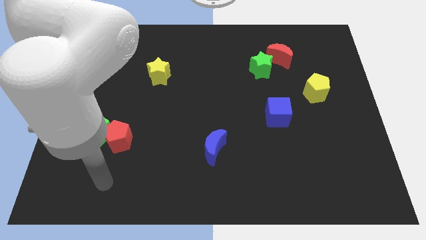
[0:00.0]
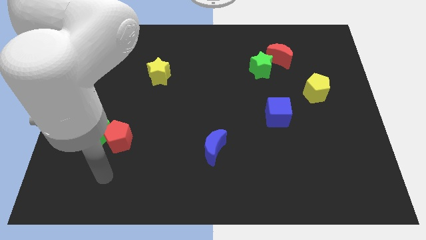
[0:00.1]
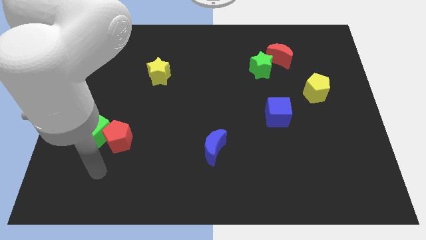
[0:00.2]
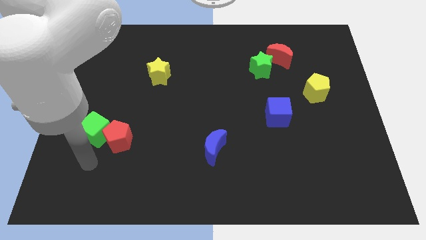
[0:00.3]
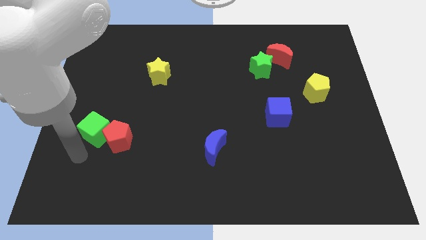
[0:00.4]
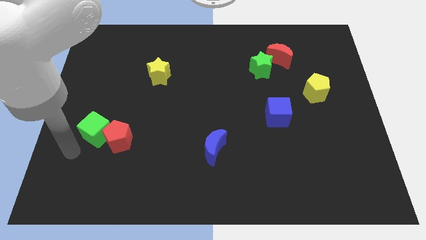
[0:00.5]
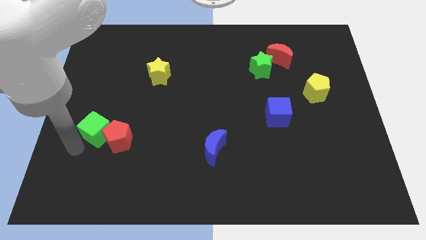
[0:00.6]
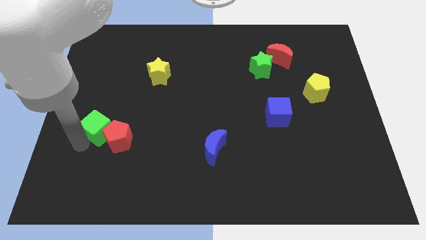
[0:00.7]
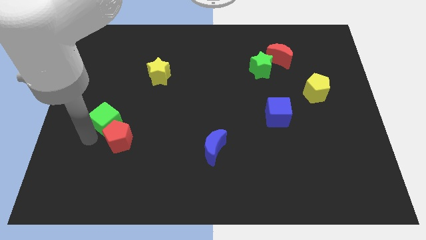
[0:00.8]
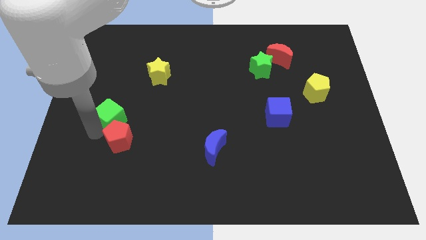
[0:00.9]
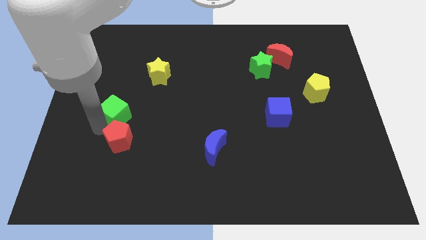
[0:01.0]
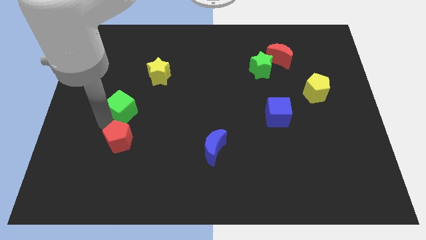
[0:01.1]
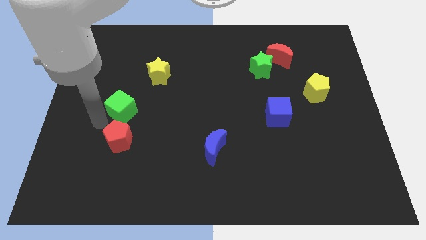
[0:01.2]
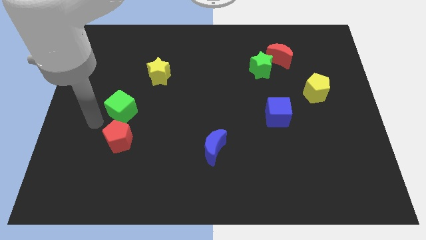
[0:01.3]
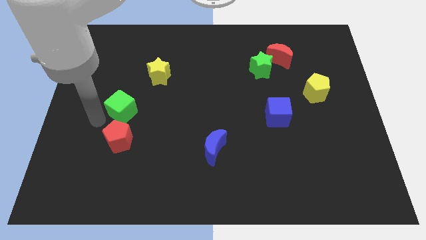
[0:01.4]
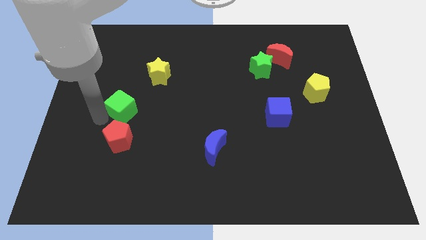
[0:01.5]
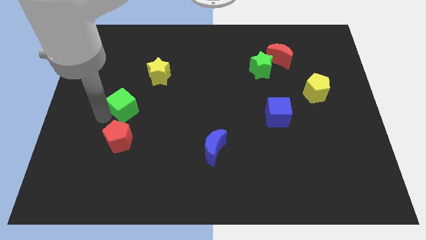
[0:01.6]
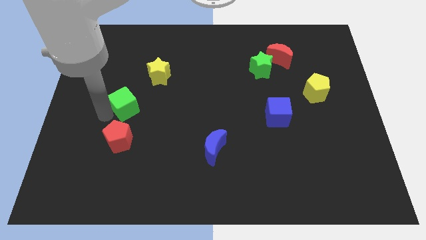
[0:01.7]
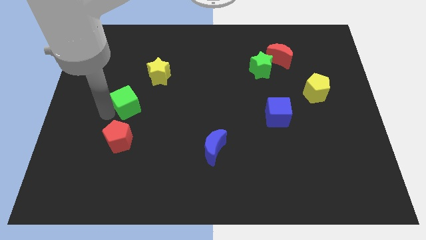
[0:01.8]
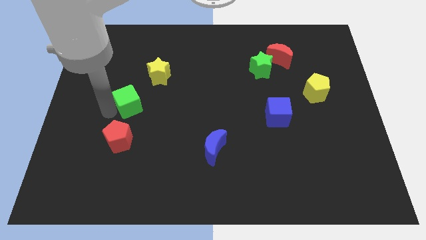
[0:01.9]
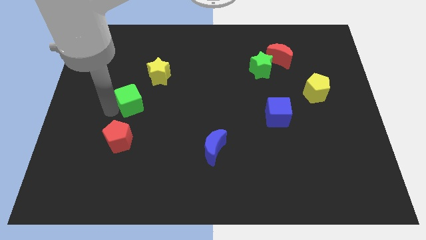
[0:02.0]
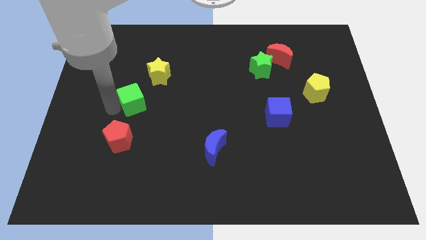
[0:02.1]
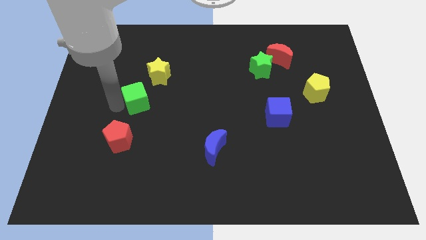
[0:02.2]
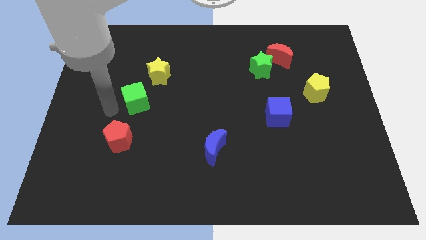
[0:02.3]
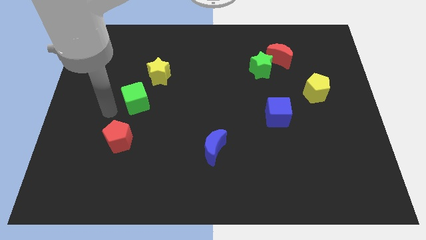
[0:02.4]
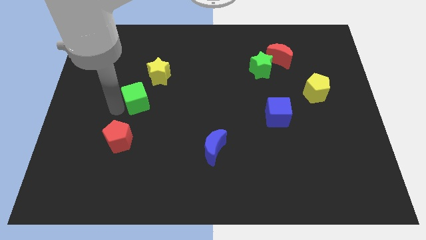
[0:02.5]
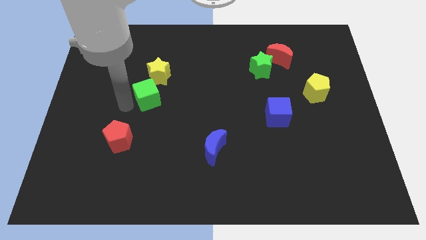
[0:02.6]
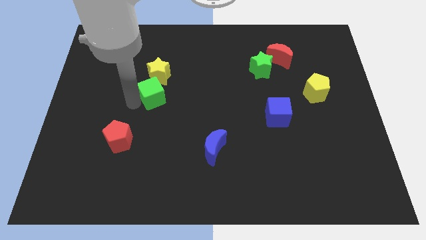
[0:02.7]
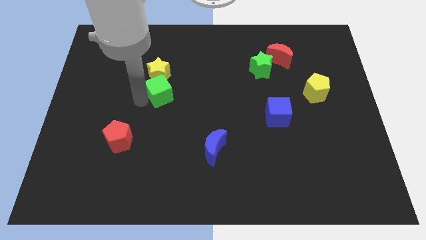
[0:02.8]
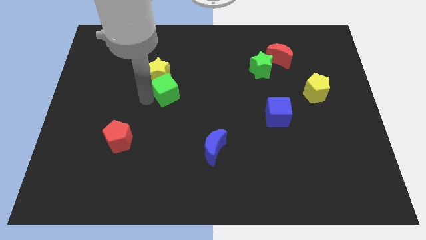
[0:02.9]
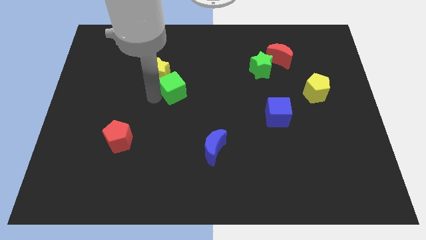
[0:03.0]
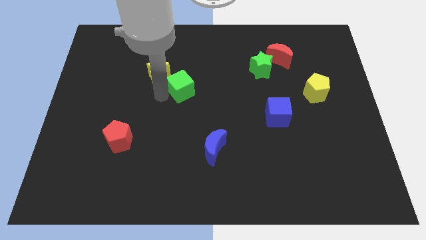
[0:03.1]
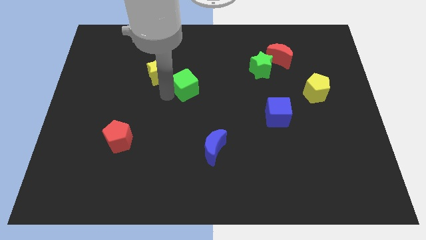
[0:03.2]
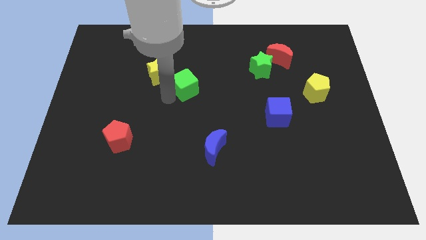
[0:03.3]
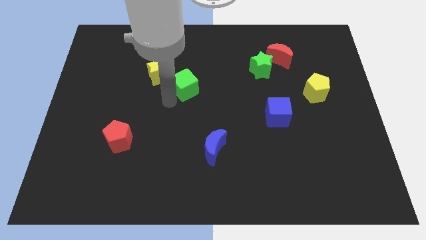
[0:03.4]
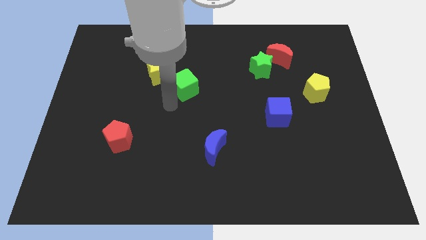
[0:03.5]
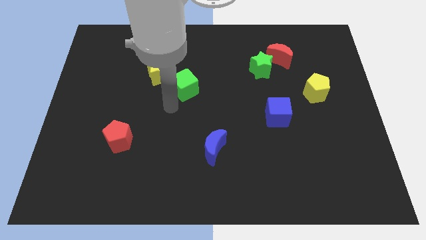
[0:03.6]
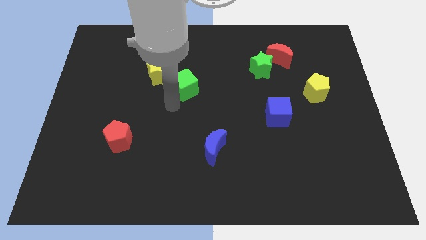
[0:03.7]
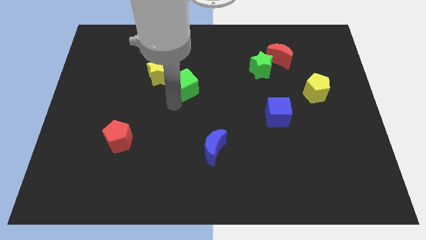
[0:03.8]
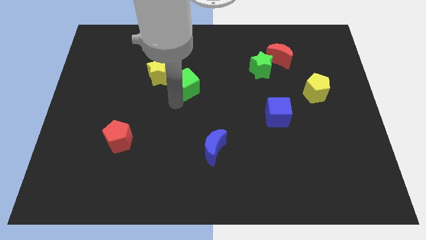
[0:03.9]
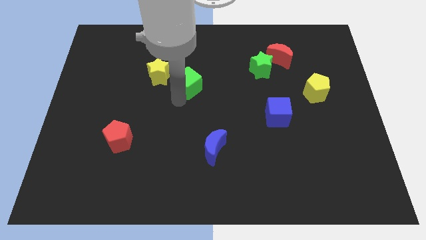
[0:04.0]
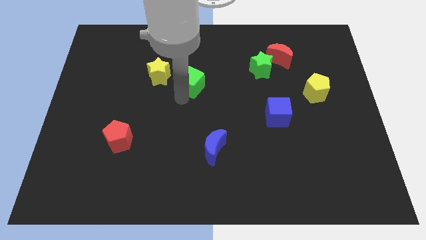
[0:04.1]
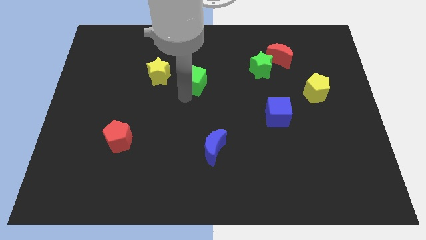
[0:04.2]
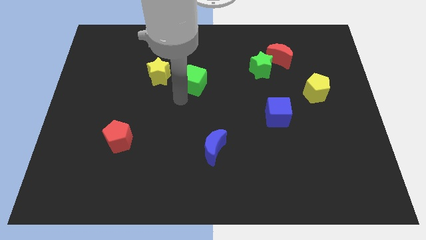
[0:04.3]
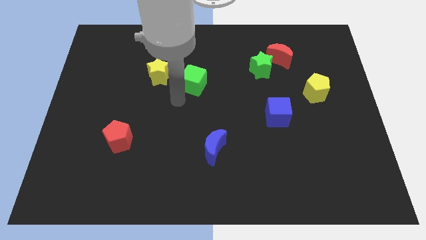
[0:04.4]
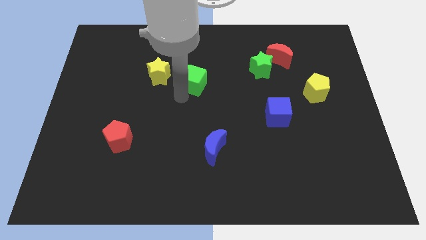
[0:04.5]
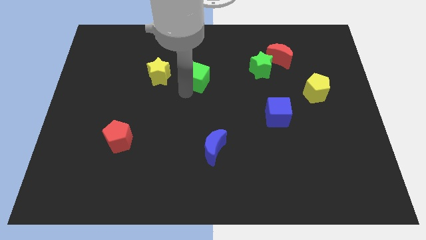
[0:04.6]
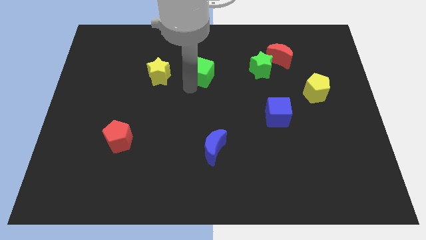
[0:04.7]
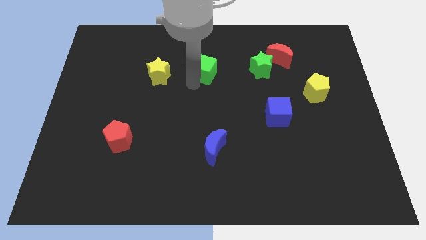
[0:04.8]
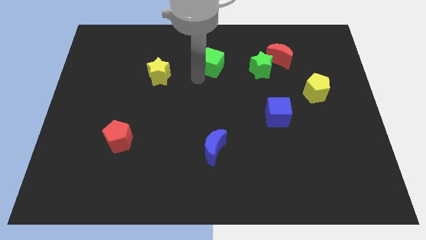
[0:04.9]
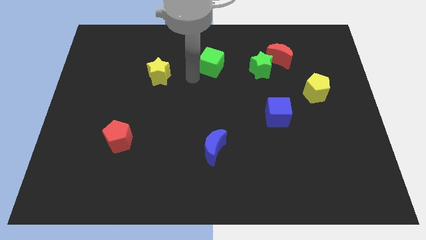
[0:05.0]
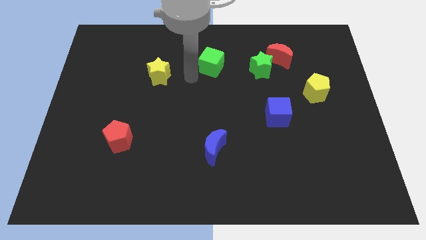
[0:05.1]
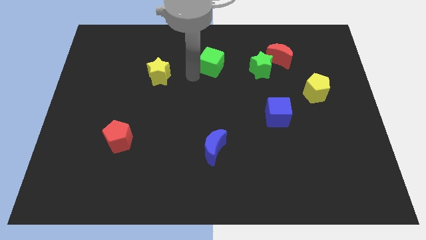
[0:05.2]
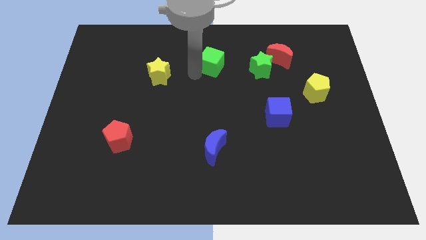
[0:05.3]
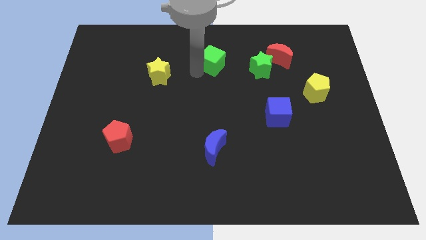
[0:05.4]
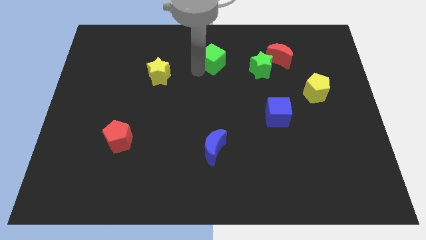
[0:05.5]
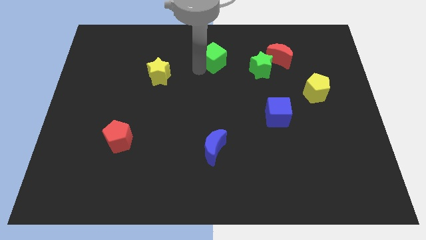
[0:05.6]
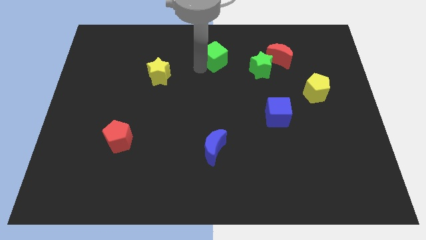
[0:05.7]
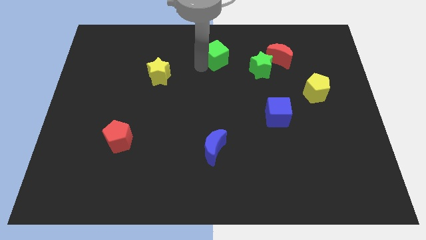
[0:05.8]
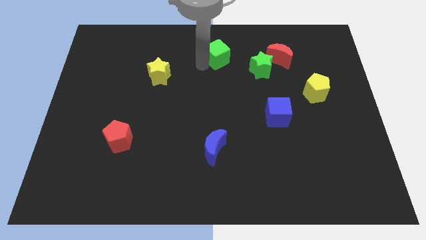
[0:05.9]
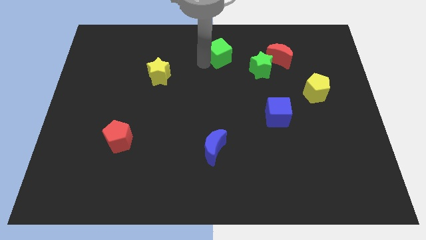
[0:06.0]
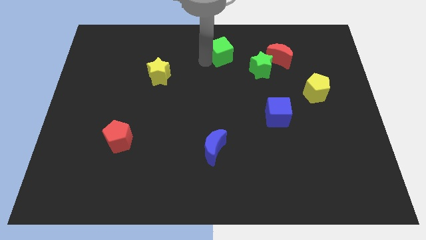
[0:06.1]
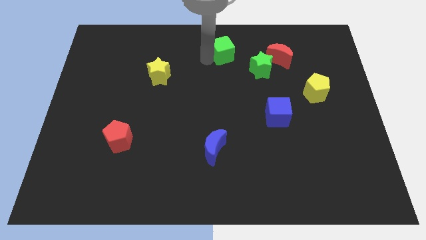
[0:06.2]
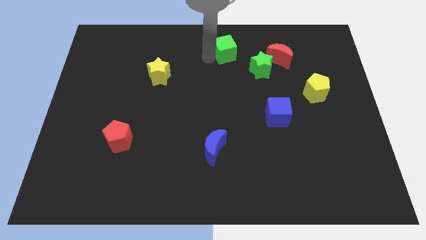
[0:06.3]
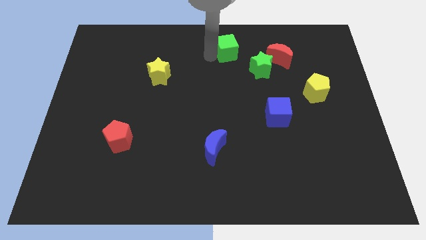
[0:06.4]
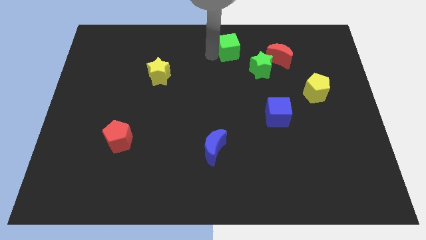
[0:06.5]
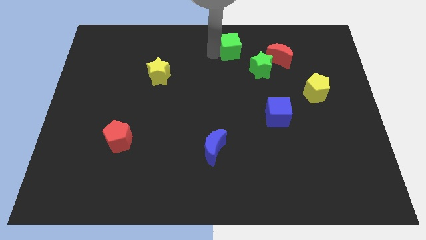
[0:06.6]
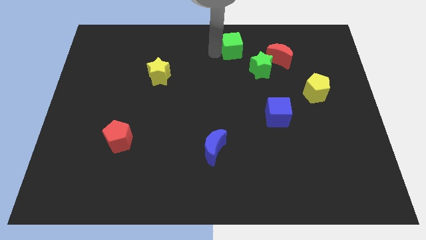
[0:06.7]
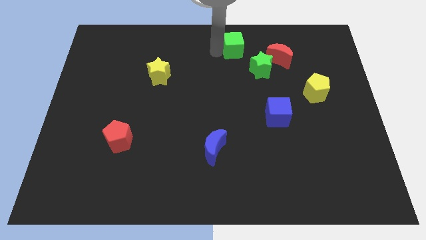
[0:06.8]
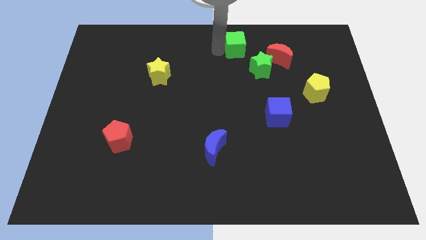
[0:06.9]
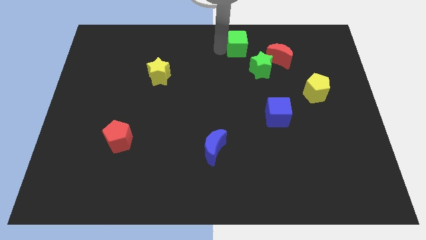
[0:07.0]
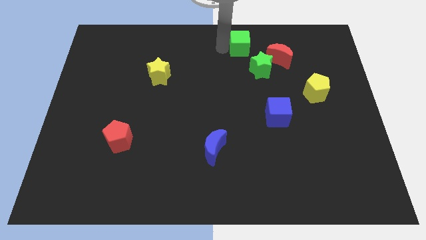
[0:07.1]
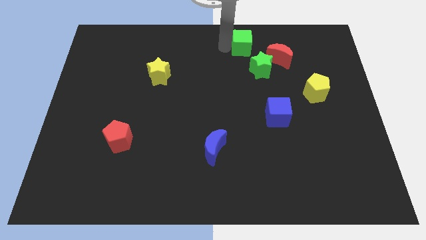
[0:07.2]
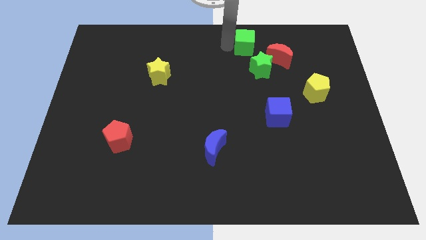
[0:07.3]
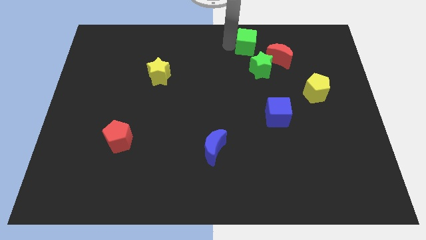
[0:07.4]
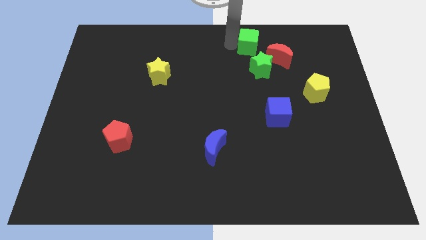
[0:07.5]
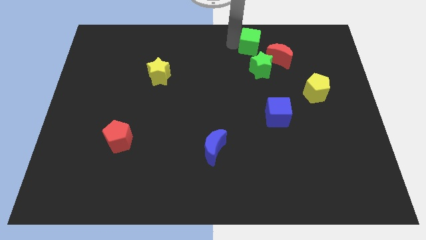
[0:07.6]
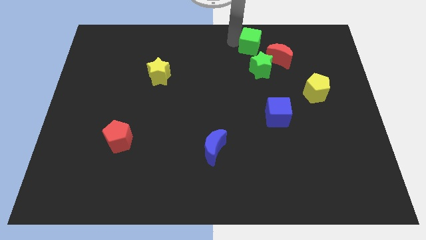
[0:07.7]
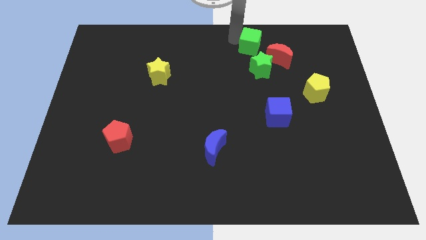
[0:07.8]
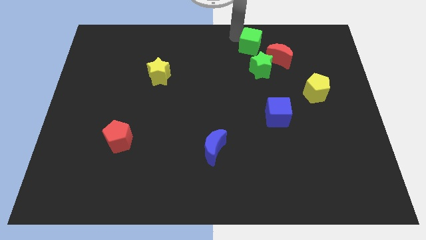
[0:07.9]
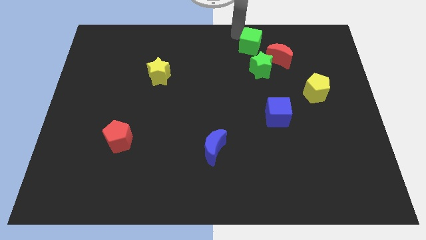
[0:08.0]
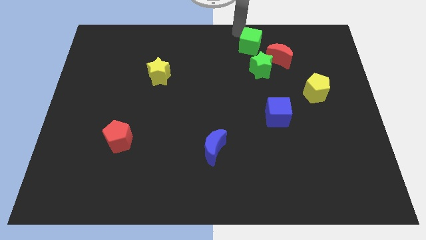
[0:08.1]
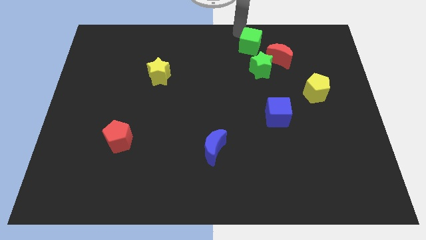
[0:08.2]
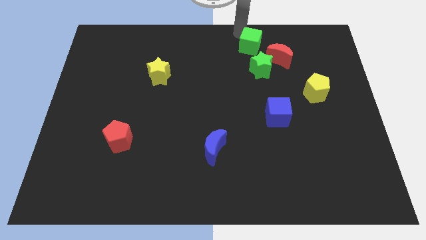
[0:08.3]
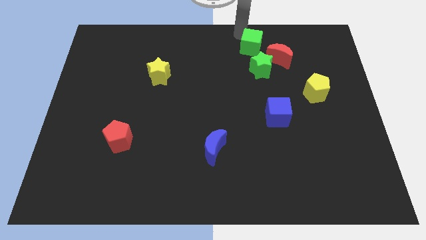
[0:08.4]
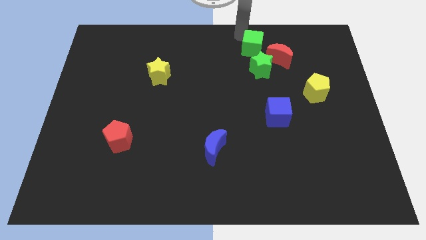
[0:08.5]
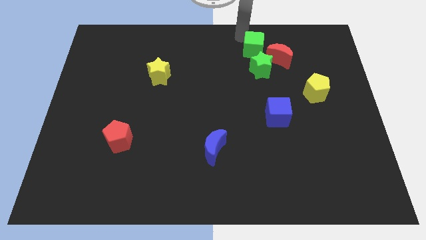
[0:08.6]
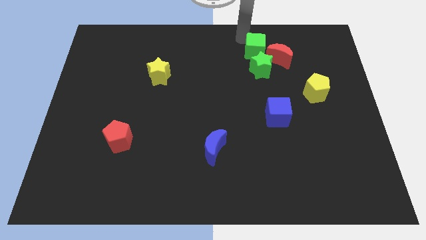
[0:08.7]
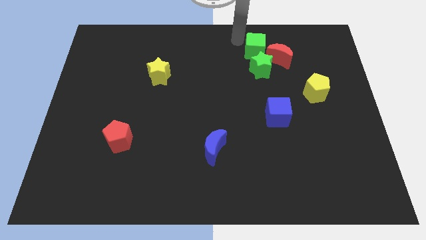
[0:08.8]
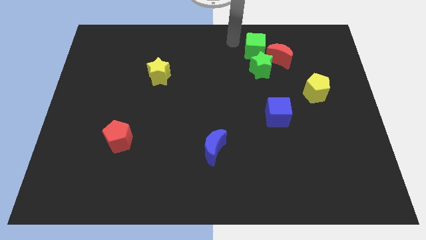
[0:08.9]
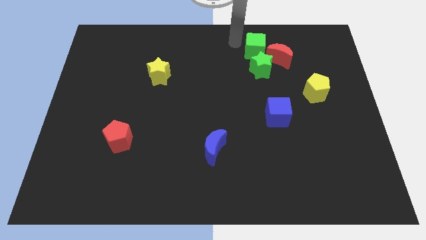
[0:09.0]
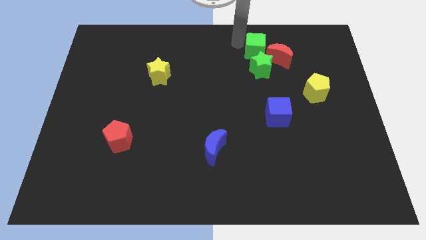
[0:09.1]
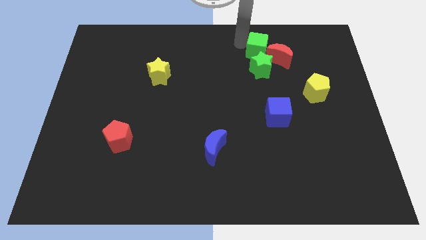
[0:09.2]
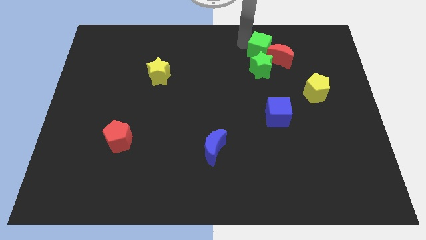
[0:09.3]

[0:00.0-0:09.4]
slide the green cube close to the red moon
